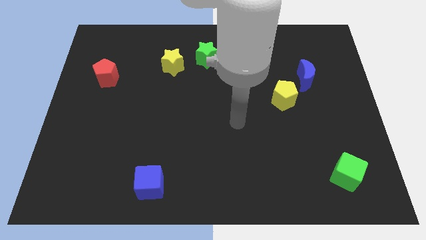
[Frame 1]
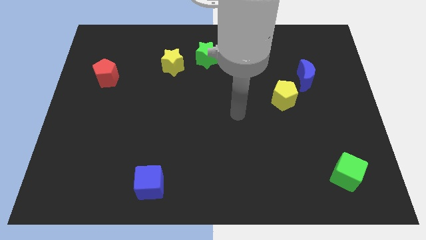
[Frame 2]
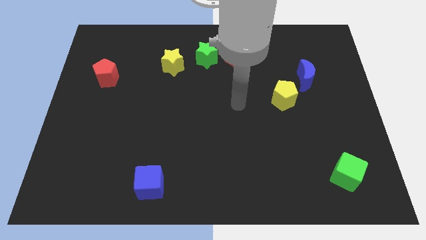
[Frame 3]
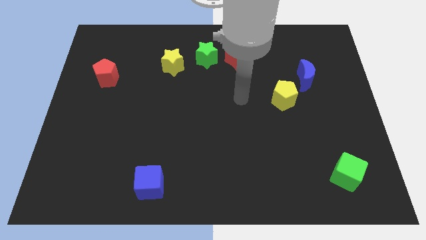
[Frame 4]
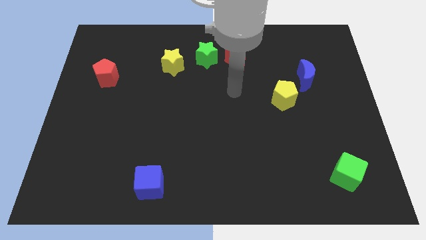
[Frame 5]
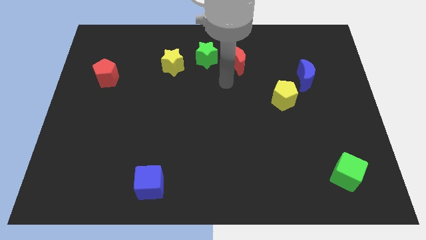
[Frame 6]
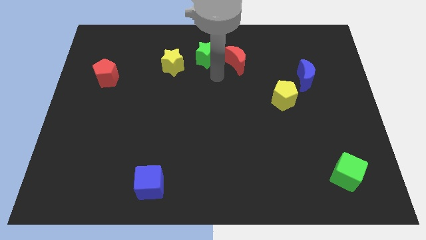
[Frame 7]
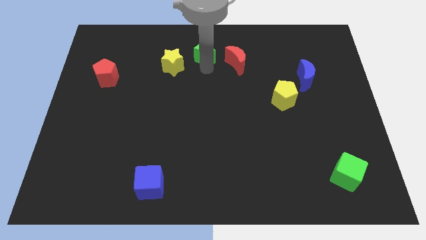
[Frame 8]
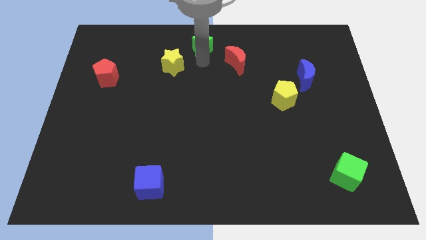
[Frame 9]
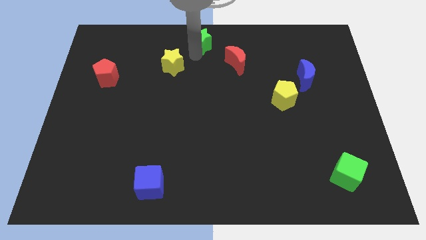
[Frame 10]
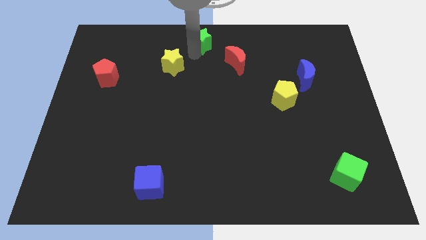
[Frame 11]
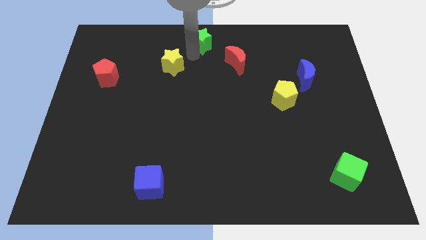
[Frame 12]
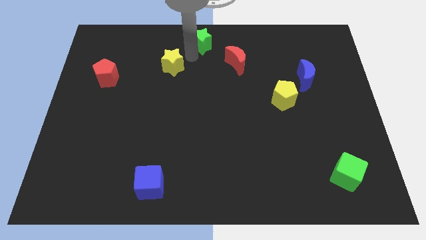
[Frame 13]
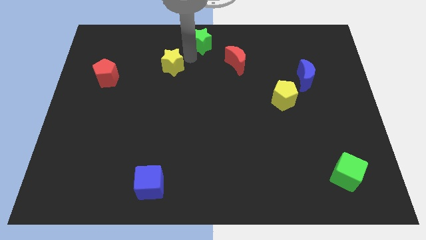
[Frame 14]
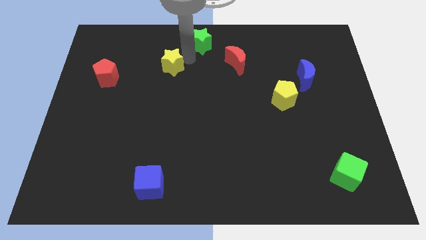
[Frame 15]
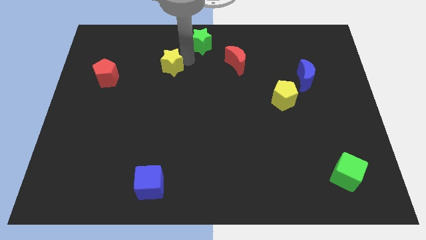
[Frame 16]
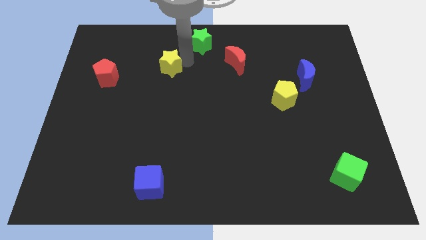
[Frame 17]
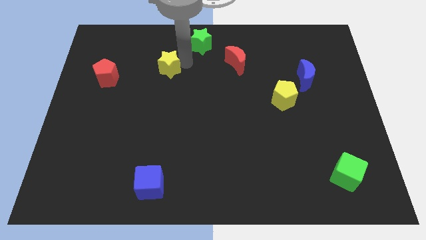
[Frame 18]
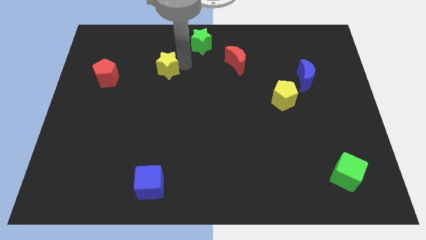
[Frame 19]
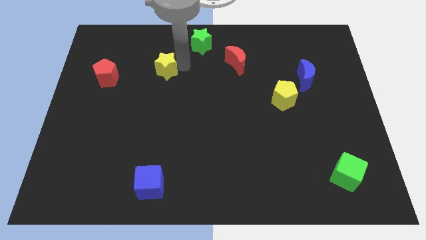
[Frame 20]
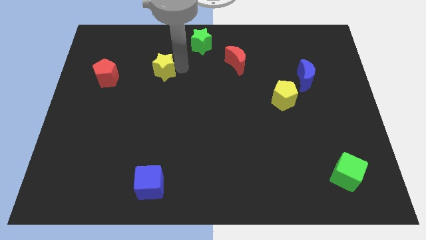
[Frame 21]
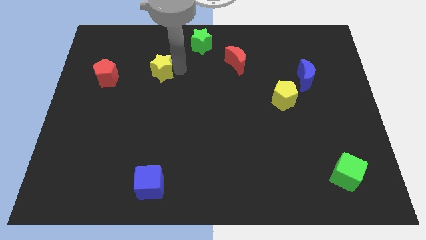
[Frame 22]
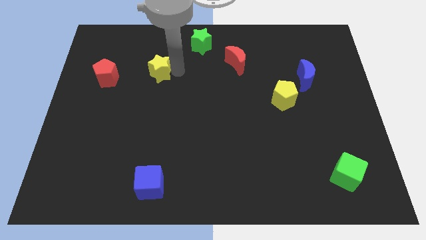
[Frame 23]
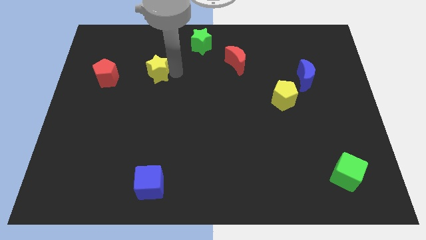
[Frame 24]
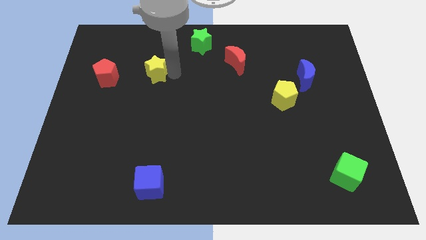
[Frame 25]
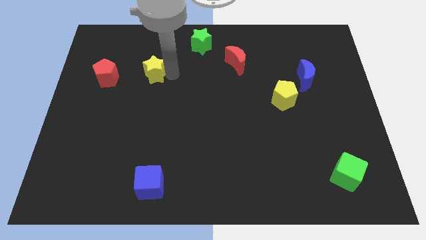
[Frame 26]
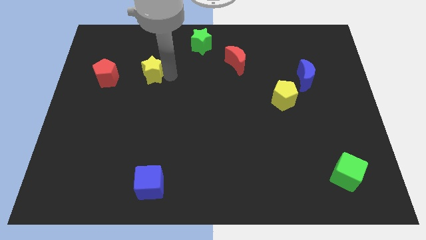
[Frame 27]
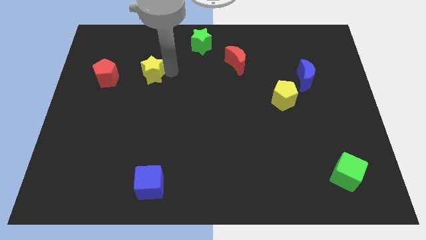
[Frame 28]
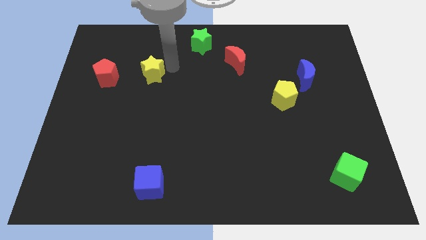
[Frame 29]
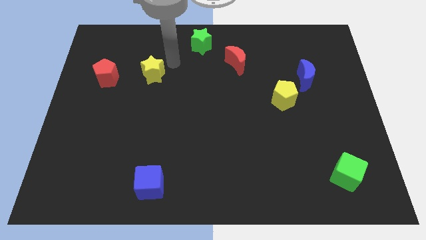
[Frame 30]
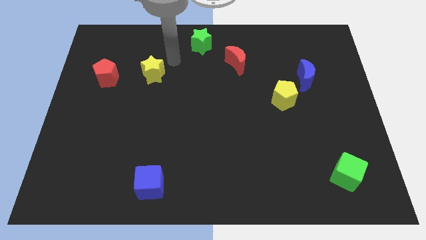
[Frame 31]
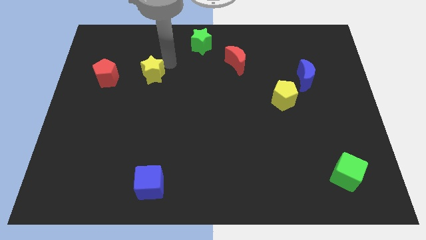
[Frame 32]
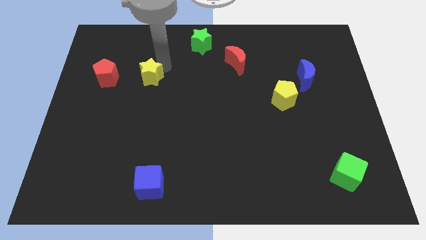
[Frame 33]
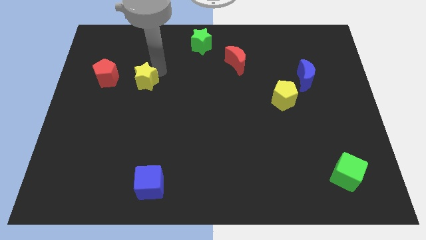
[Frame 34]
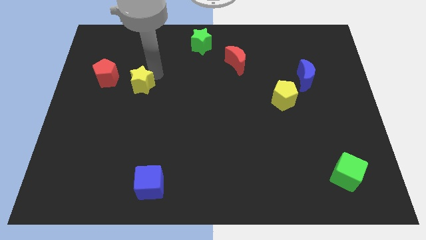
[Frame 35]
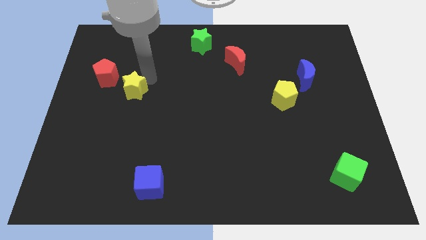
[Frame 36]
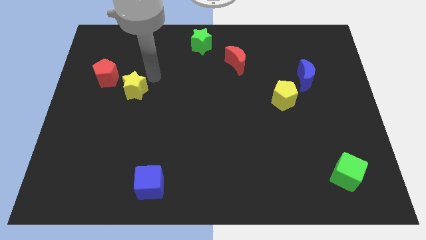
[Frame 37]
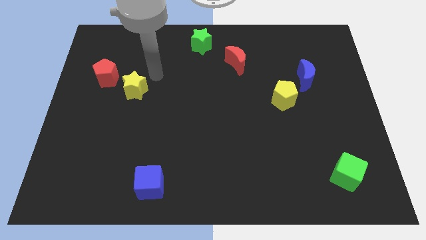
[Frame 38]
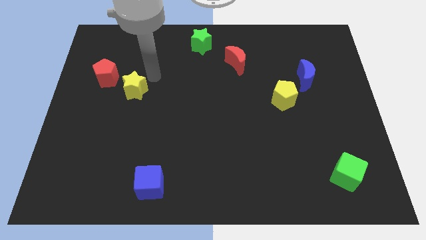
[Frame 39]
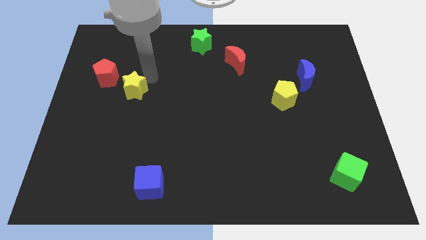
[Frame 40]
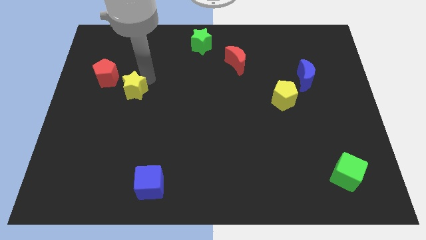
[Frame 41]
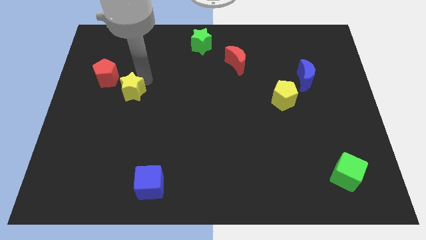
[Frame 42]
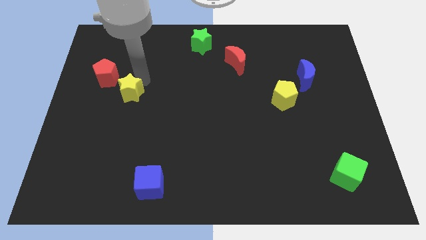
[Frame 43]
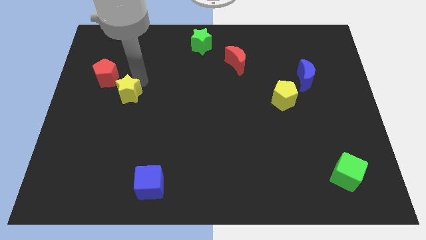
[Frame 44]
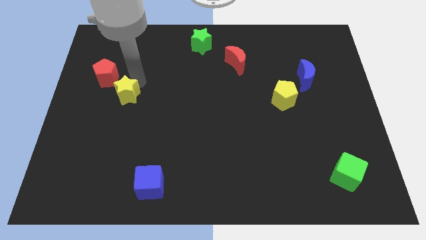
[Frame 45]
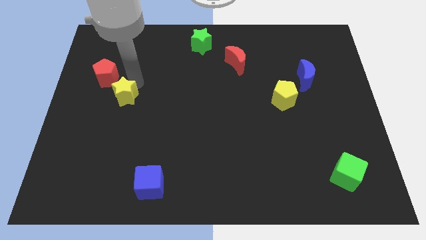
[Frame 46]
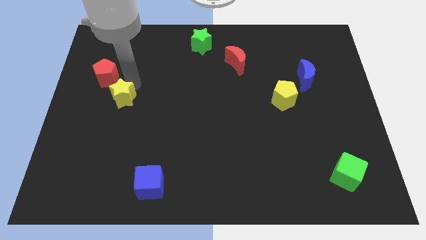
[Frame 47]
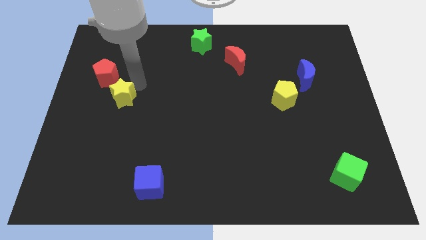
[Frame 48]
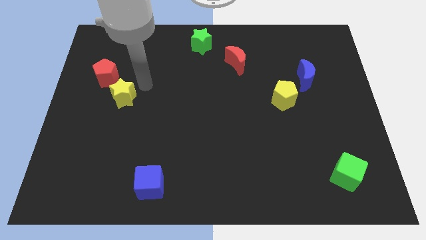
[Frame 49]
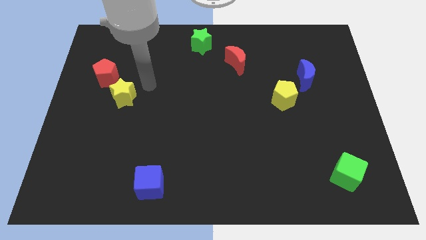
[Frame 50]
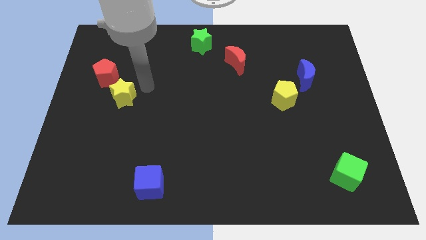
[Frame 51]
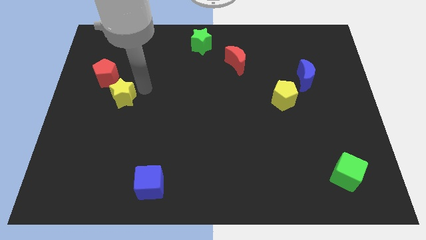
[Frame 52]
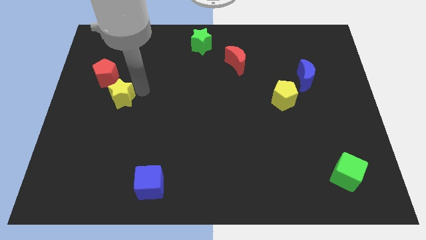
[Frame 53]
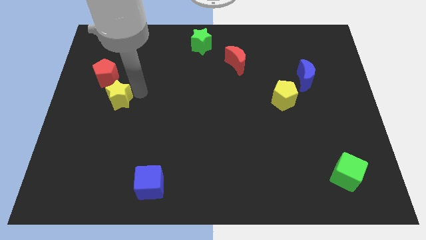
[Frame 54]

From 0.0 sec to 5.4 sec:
move the yellow star below the red pentagon

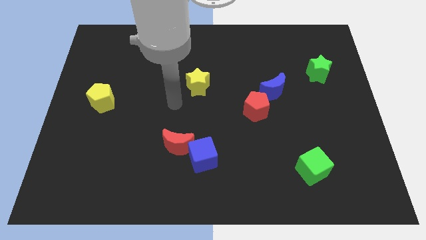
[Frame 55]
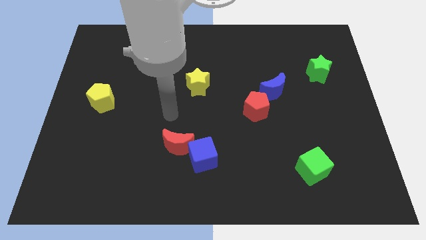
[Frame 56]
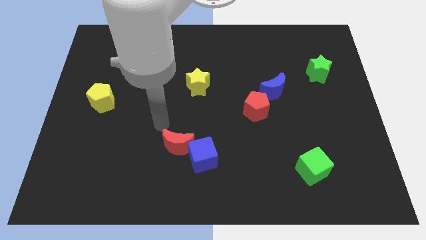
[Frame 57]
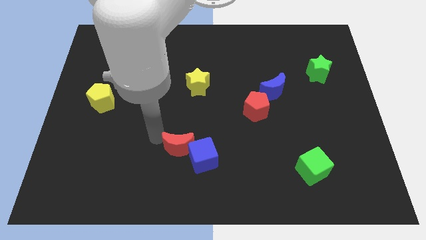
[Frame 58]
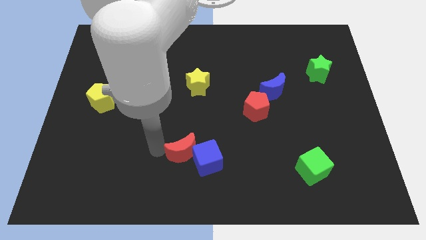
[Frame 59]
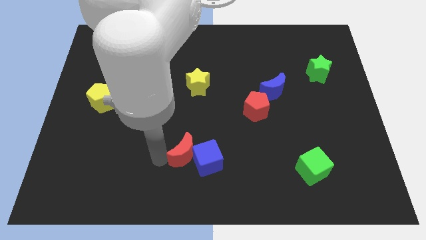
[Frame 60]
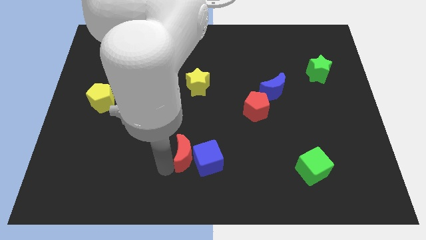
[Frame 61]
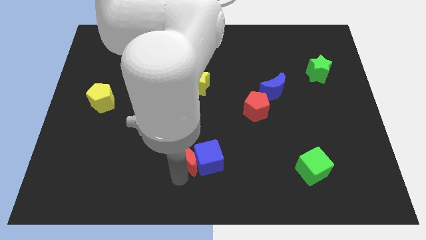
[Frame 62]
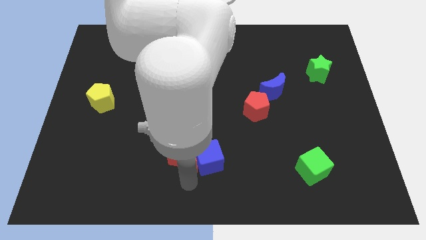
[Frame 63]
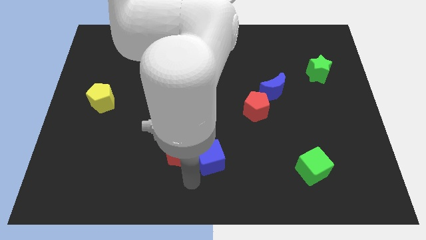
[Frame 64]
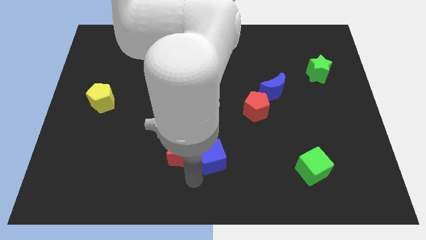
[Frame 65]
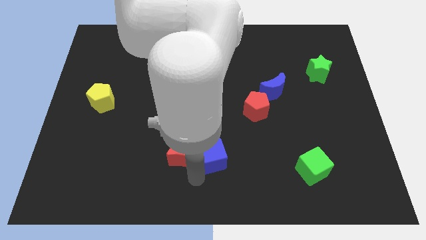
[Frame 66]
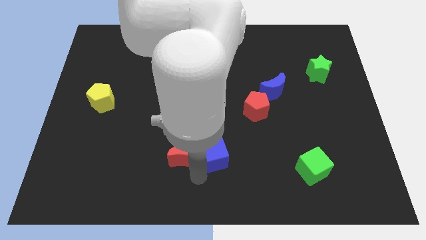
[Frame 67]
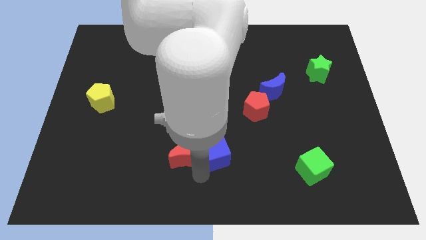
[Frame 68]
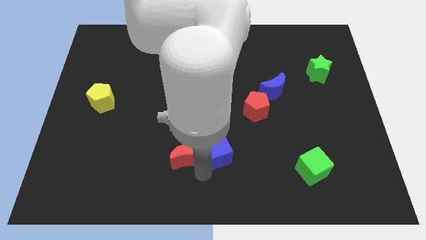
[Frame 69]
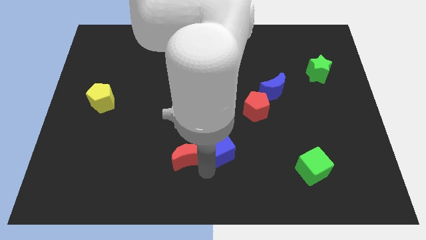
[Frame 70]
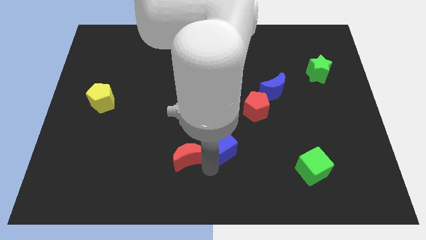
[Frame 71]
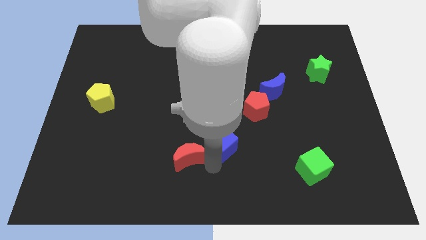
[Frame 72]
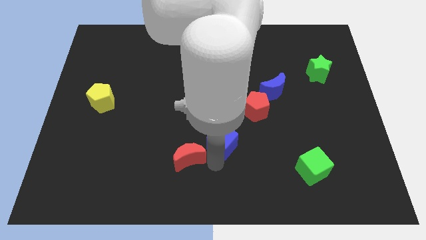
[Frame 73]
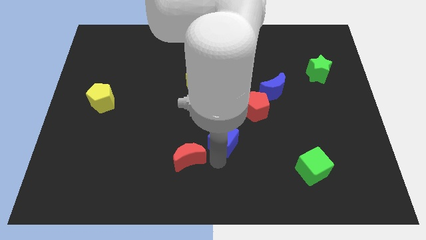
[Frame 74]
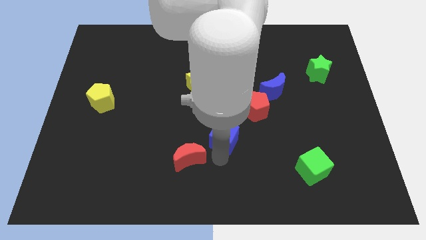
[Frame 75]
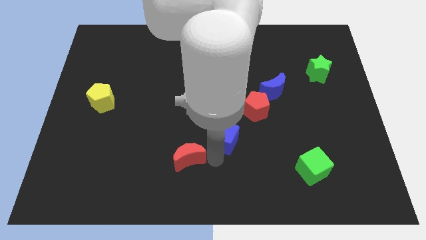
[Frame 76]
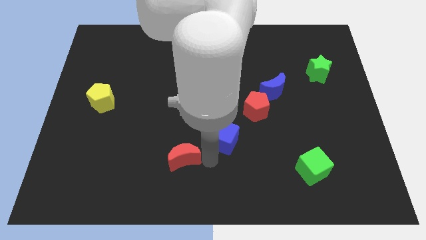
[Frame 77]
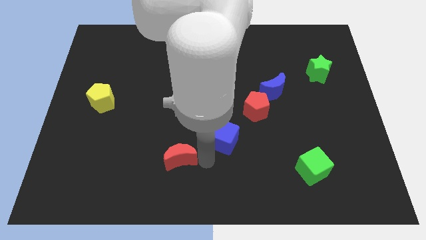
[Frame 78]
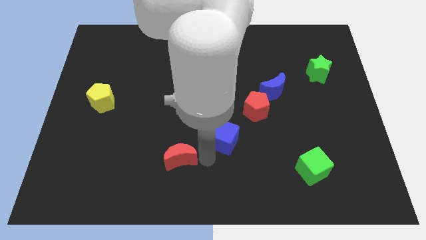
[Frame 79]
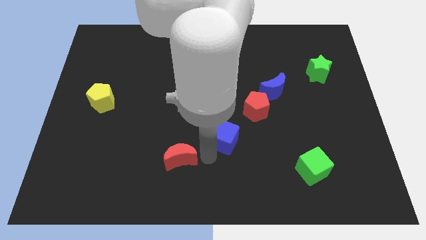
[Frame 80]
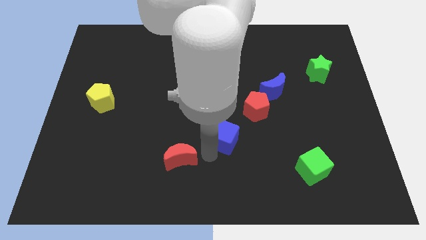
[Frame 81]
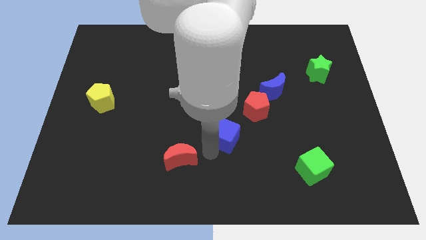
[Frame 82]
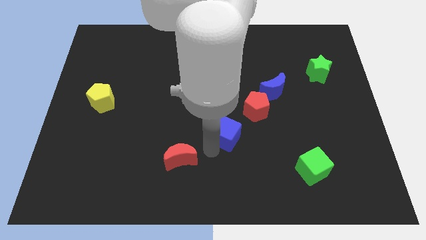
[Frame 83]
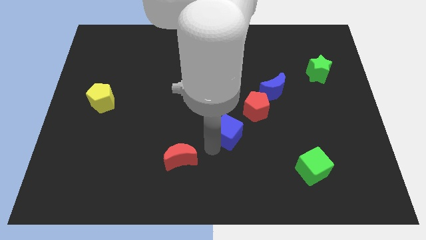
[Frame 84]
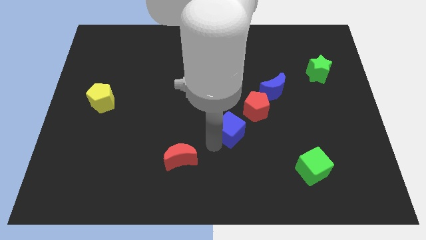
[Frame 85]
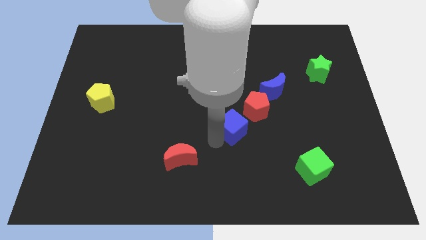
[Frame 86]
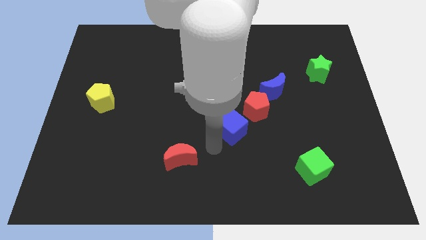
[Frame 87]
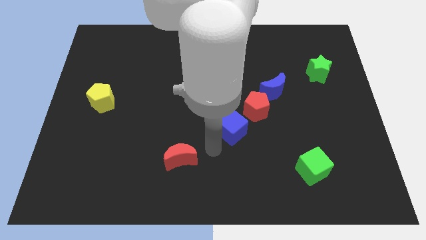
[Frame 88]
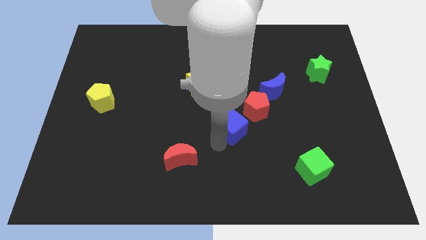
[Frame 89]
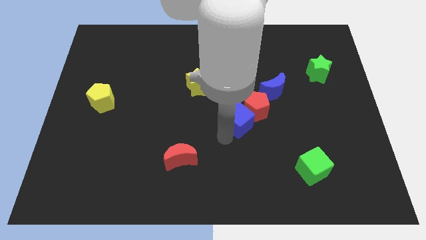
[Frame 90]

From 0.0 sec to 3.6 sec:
slide the blue cube to the bottom left of the blue moon
